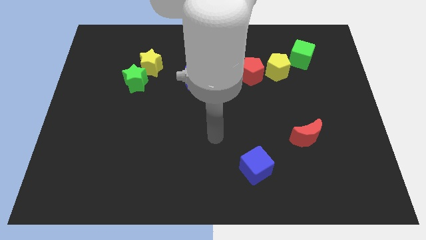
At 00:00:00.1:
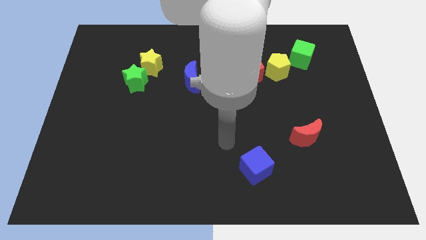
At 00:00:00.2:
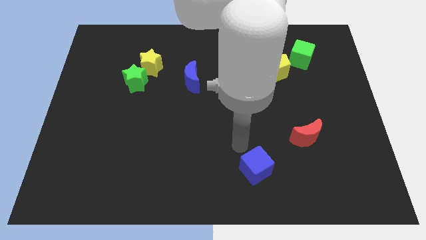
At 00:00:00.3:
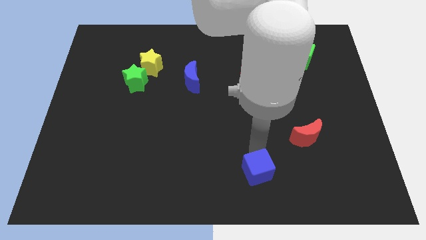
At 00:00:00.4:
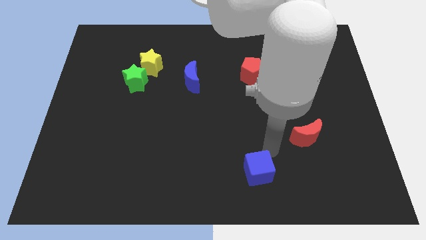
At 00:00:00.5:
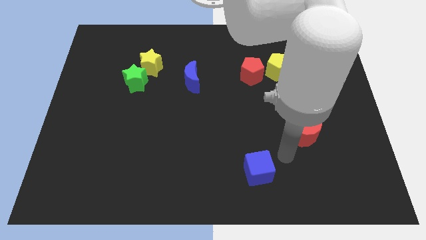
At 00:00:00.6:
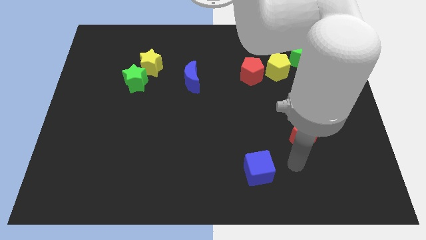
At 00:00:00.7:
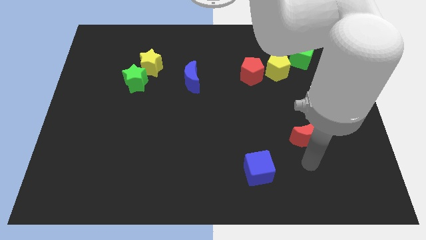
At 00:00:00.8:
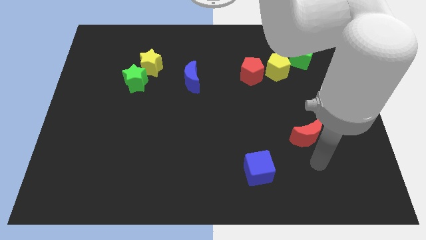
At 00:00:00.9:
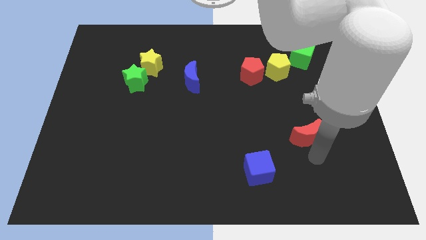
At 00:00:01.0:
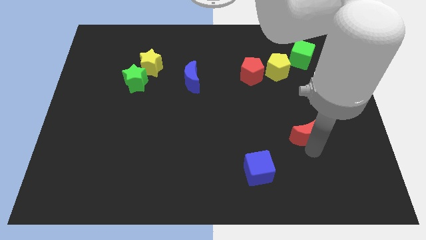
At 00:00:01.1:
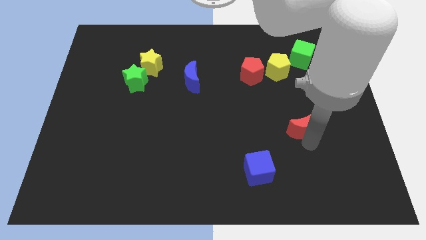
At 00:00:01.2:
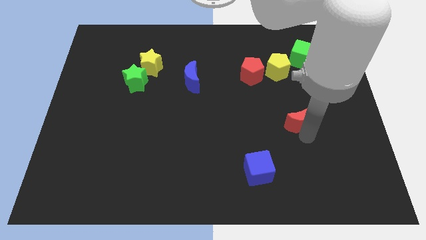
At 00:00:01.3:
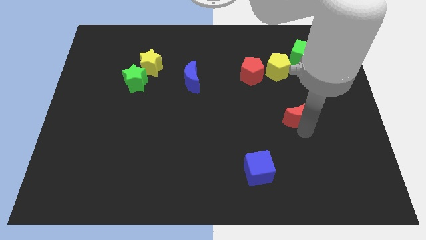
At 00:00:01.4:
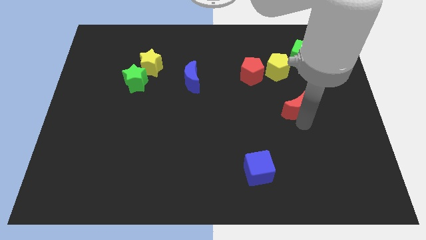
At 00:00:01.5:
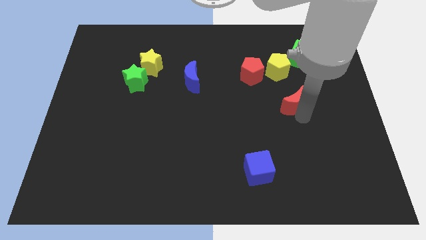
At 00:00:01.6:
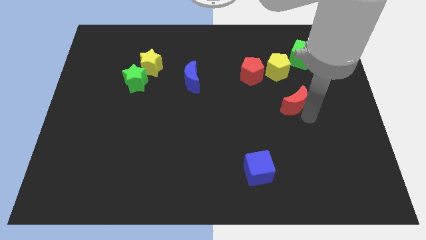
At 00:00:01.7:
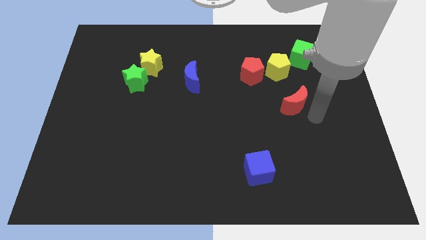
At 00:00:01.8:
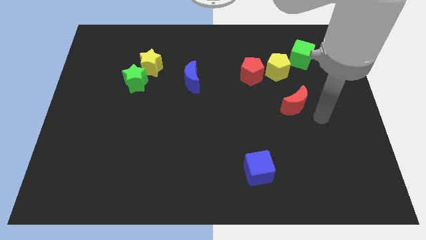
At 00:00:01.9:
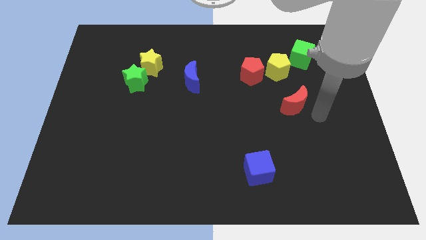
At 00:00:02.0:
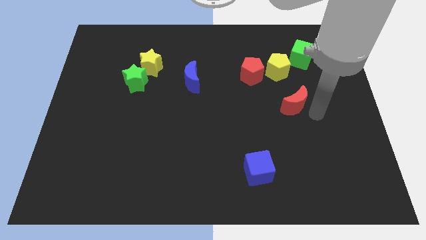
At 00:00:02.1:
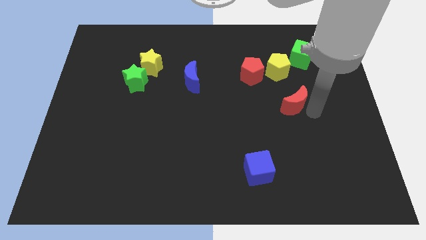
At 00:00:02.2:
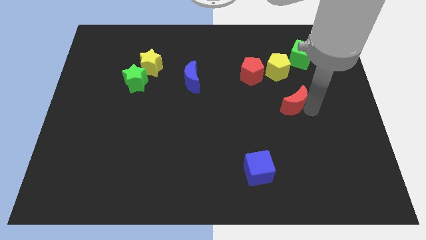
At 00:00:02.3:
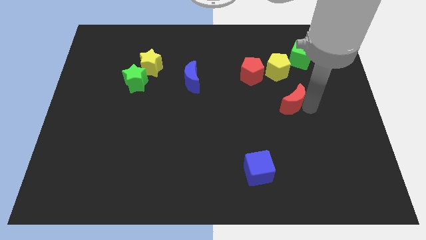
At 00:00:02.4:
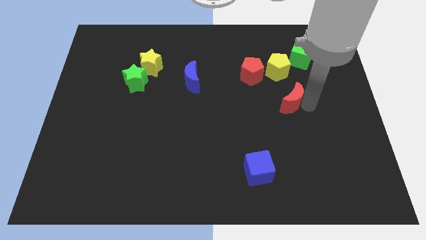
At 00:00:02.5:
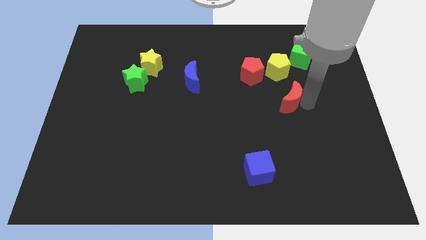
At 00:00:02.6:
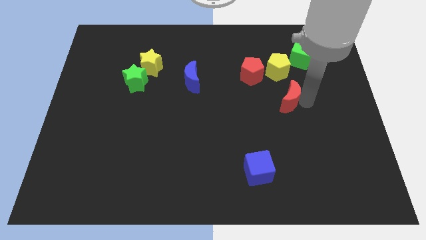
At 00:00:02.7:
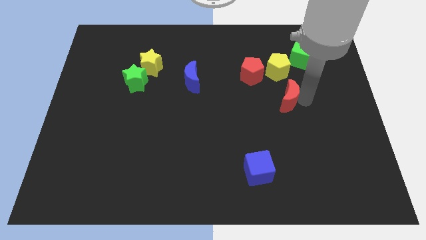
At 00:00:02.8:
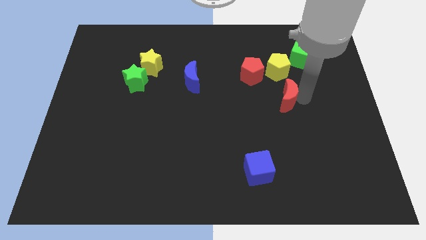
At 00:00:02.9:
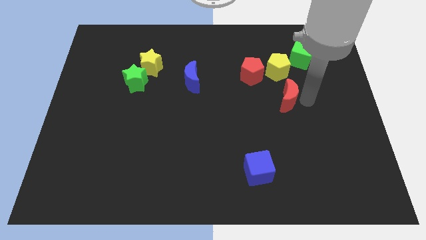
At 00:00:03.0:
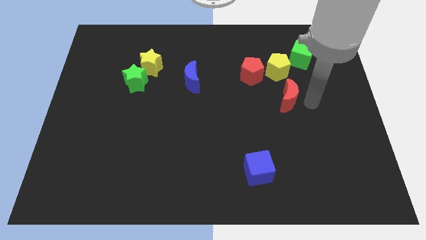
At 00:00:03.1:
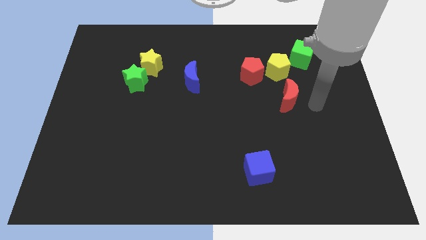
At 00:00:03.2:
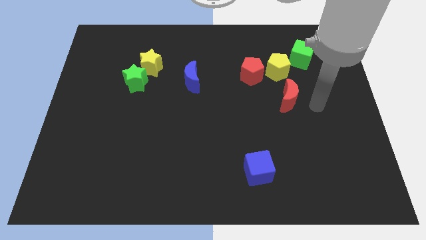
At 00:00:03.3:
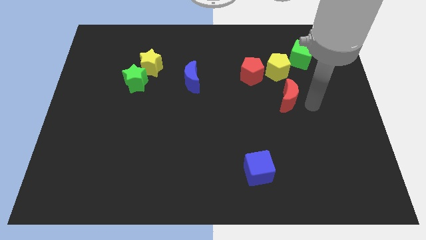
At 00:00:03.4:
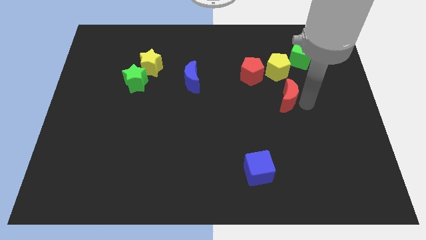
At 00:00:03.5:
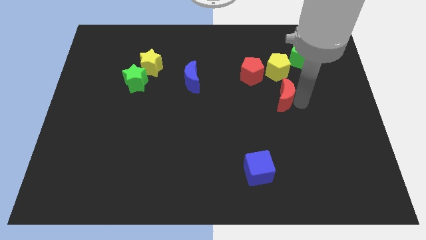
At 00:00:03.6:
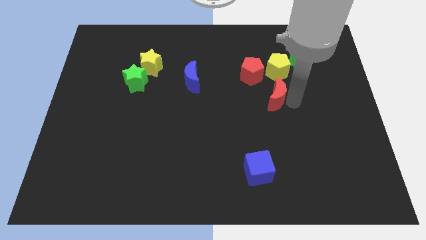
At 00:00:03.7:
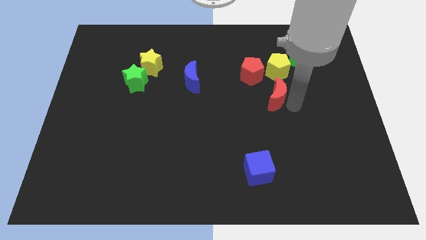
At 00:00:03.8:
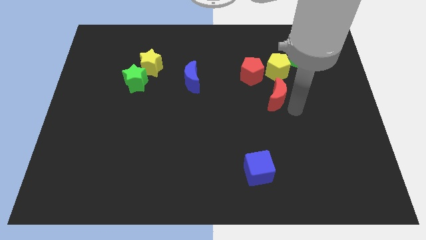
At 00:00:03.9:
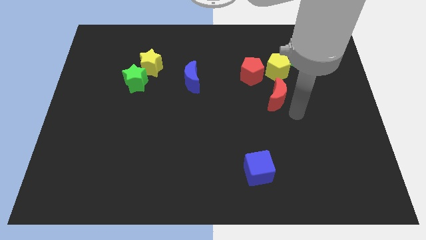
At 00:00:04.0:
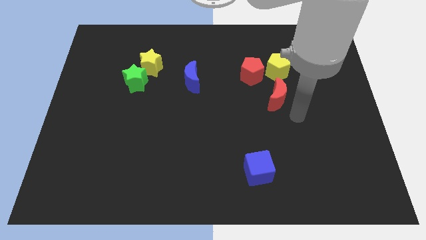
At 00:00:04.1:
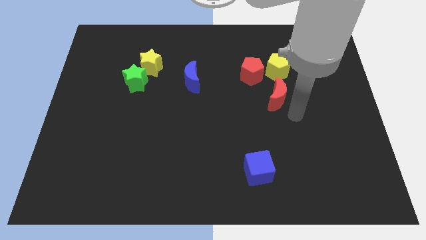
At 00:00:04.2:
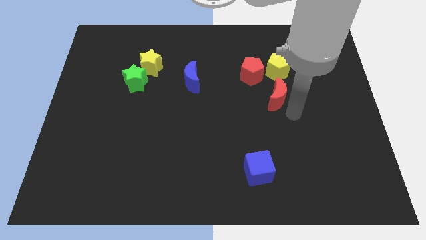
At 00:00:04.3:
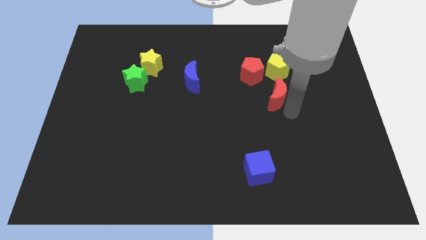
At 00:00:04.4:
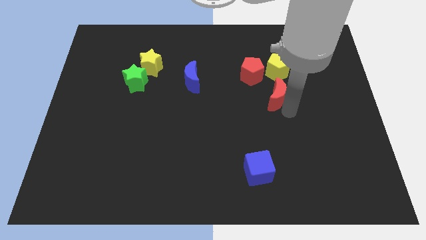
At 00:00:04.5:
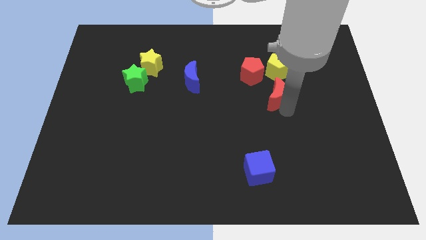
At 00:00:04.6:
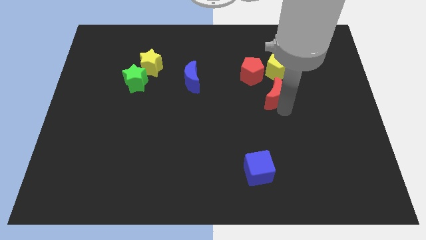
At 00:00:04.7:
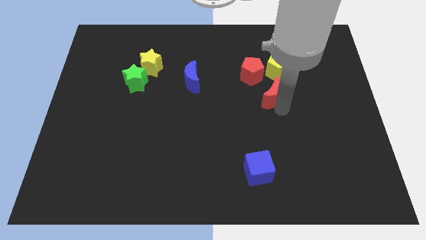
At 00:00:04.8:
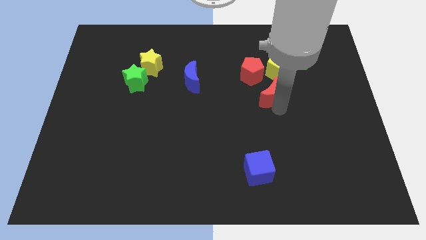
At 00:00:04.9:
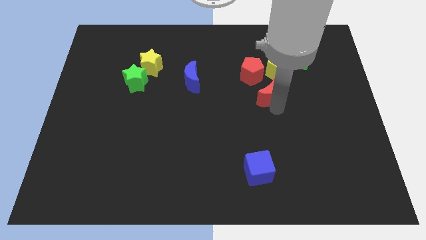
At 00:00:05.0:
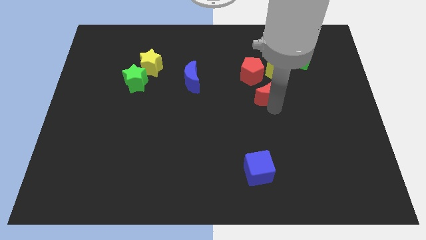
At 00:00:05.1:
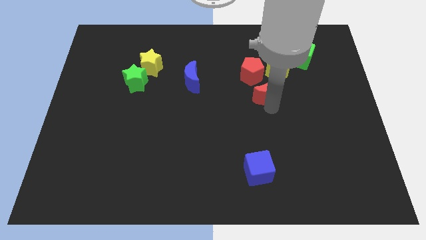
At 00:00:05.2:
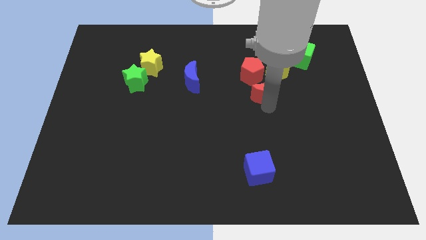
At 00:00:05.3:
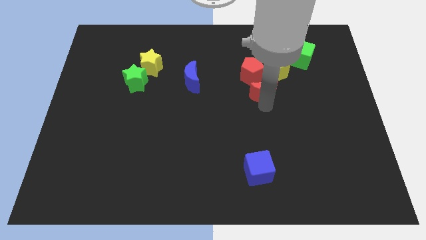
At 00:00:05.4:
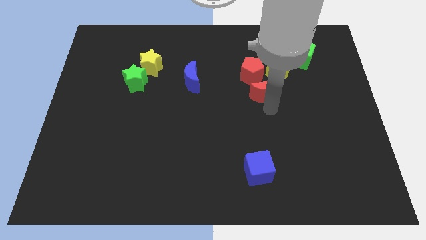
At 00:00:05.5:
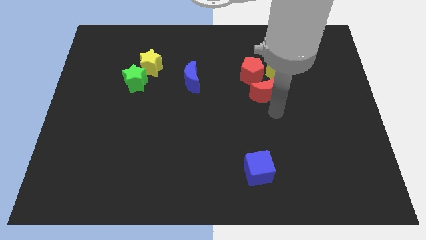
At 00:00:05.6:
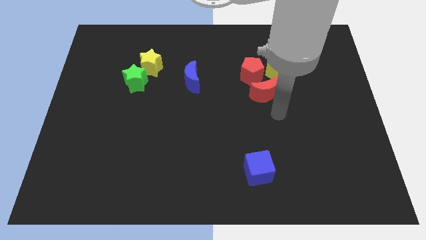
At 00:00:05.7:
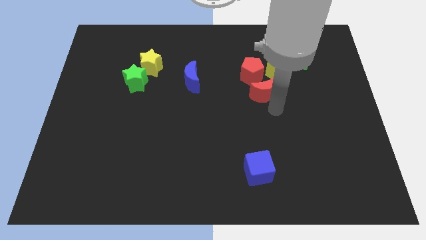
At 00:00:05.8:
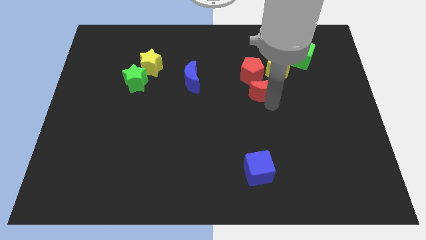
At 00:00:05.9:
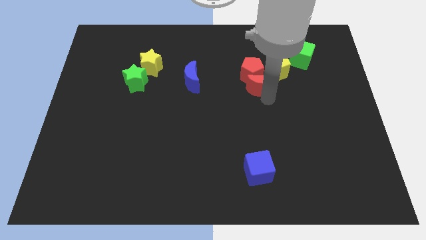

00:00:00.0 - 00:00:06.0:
slide the red moon to the red pentagon

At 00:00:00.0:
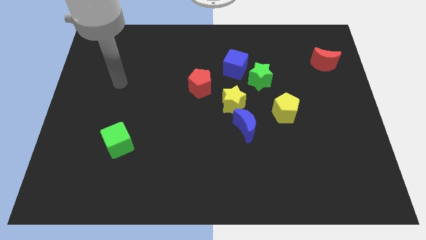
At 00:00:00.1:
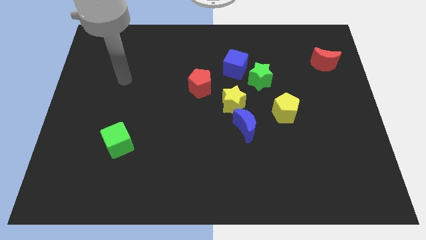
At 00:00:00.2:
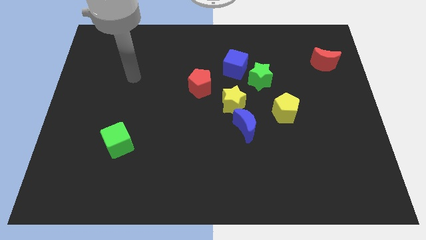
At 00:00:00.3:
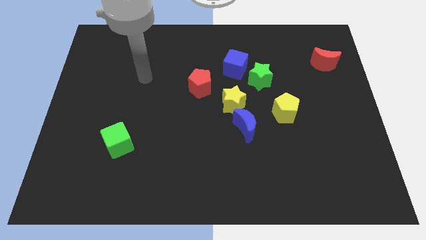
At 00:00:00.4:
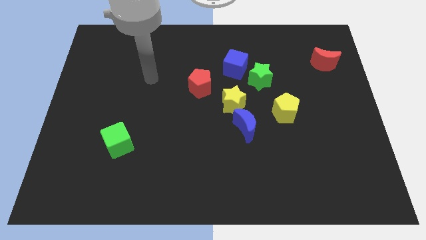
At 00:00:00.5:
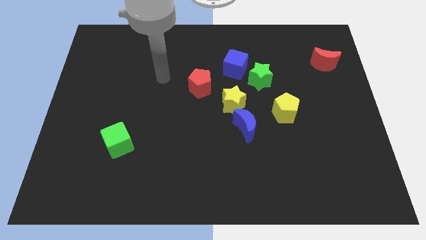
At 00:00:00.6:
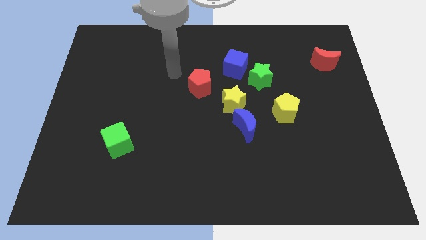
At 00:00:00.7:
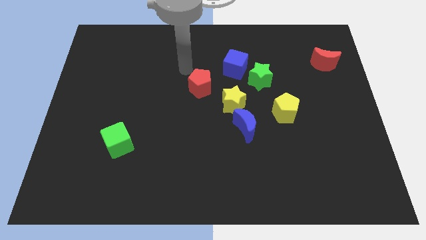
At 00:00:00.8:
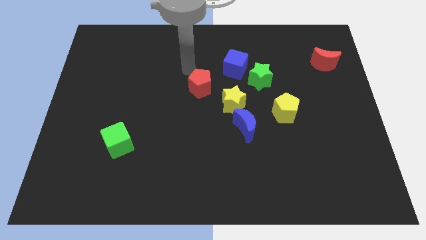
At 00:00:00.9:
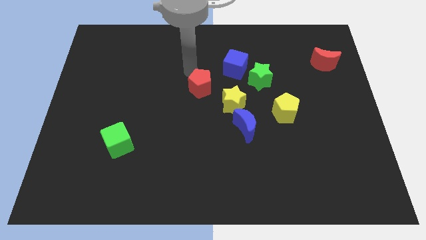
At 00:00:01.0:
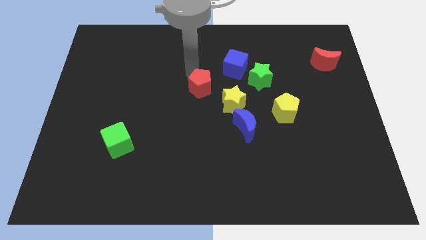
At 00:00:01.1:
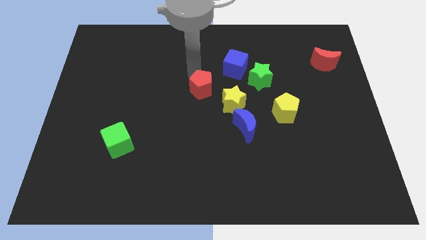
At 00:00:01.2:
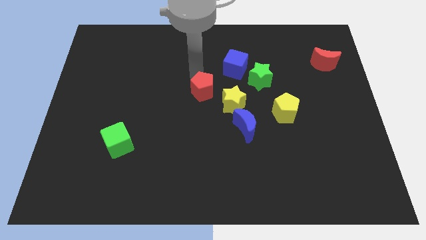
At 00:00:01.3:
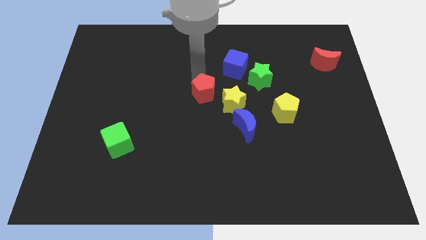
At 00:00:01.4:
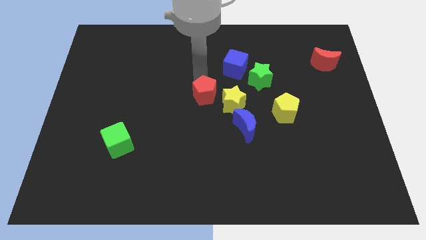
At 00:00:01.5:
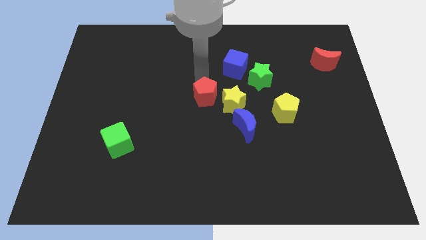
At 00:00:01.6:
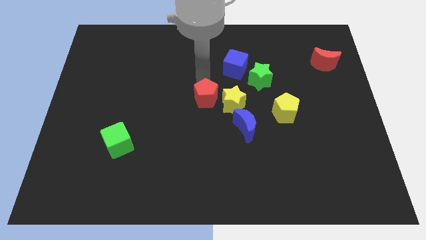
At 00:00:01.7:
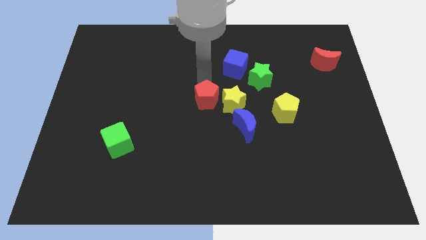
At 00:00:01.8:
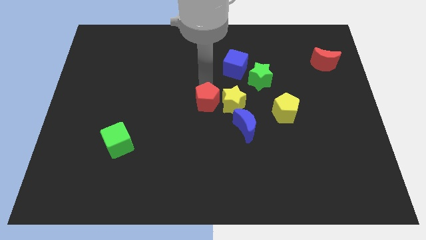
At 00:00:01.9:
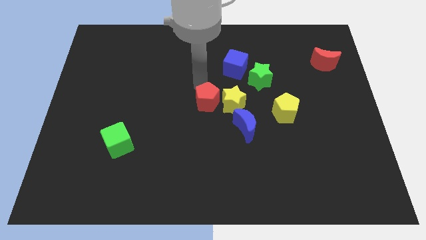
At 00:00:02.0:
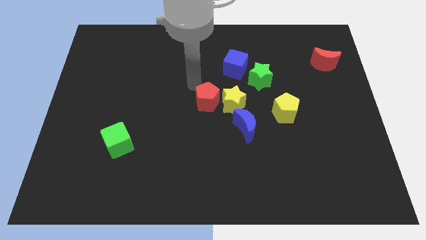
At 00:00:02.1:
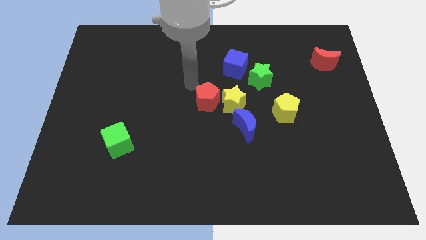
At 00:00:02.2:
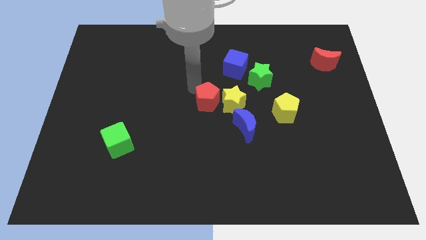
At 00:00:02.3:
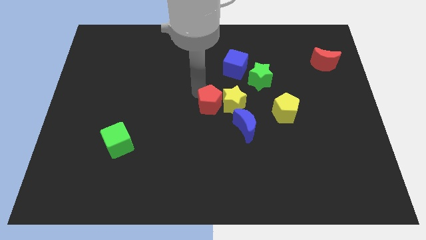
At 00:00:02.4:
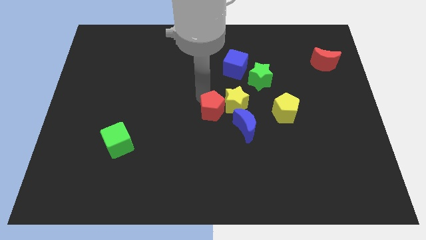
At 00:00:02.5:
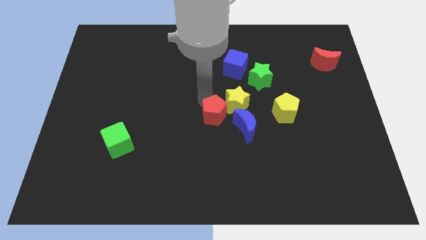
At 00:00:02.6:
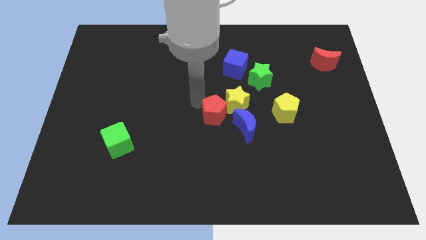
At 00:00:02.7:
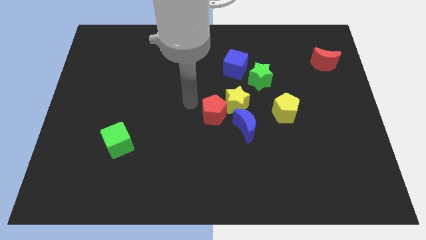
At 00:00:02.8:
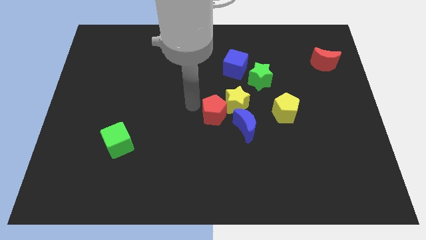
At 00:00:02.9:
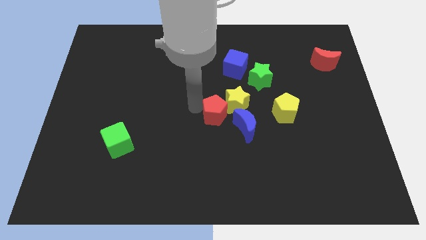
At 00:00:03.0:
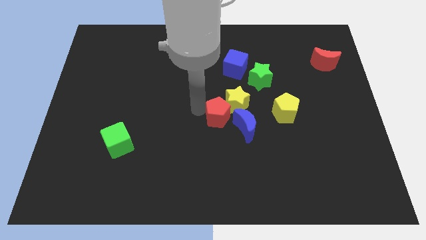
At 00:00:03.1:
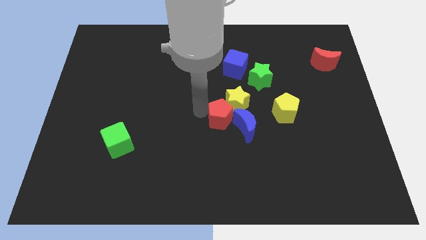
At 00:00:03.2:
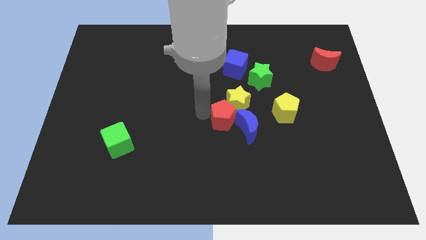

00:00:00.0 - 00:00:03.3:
move the red pentagon to the blue moon
